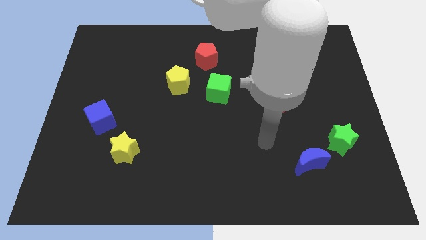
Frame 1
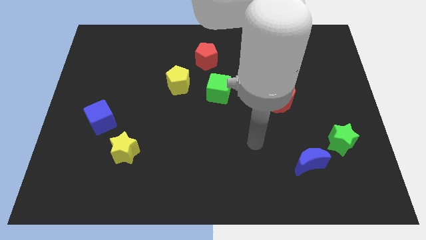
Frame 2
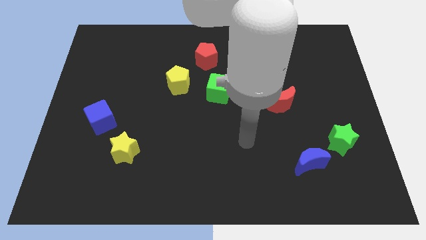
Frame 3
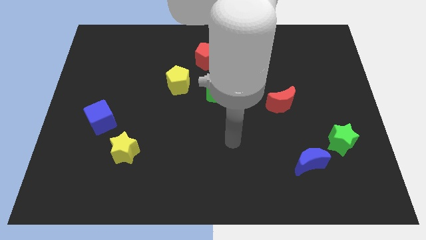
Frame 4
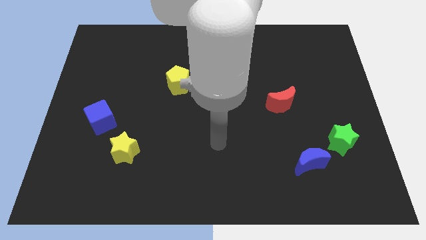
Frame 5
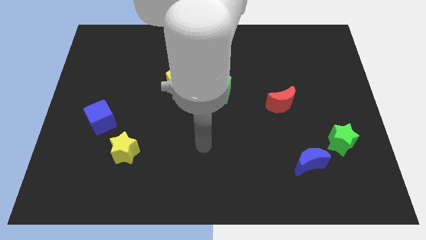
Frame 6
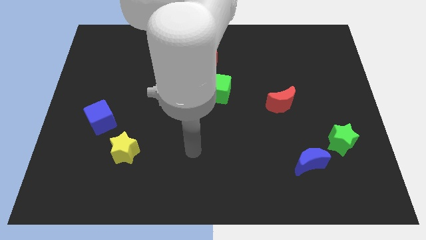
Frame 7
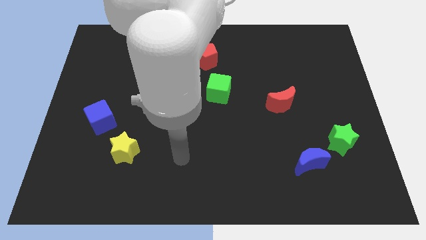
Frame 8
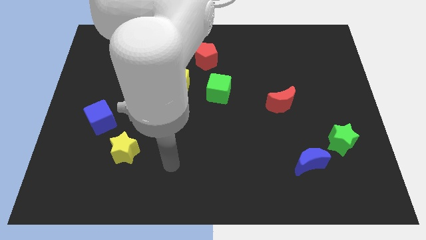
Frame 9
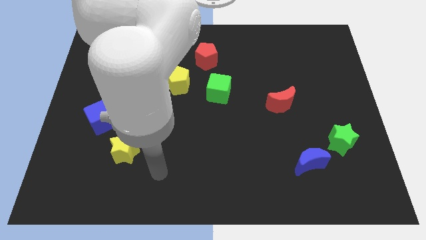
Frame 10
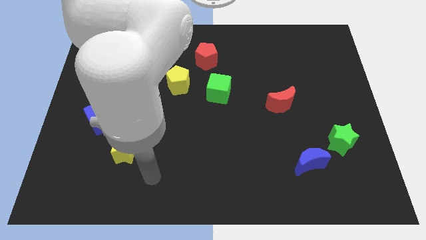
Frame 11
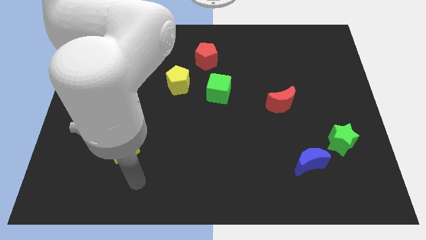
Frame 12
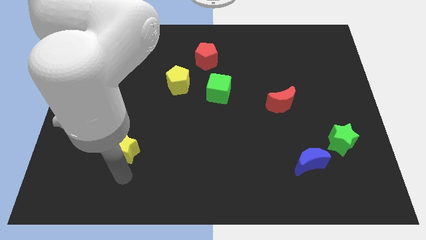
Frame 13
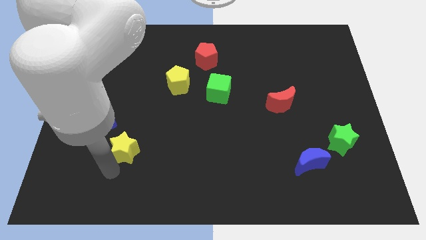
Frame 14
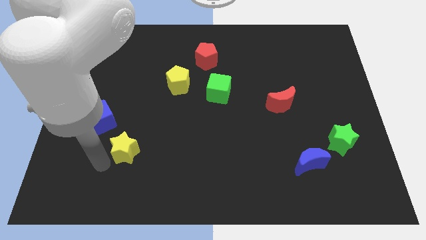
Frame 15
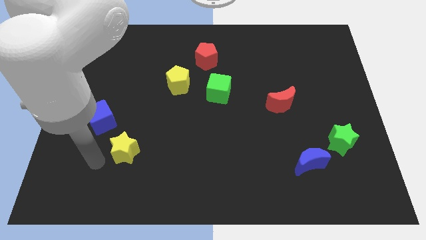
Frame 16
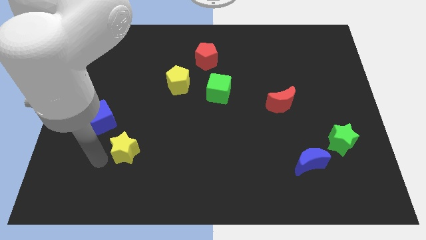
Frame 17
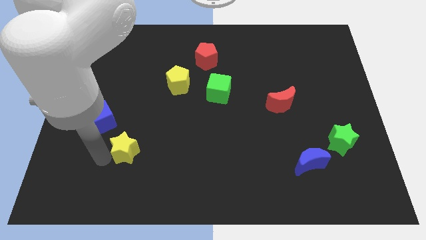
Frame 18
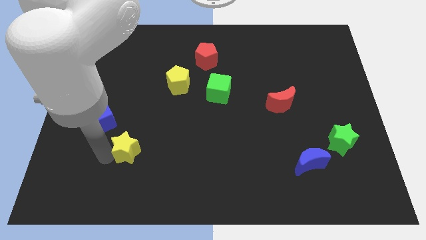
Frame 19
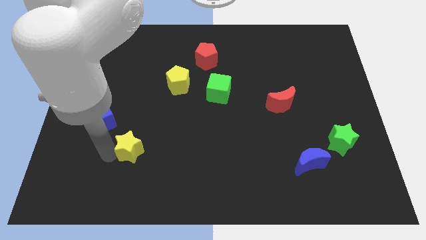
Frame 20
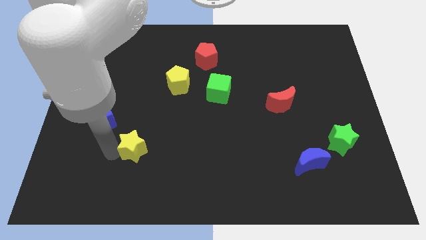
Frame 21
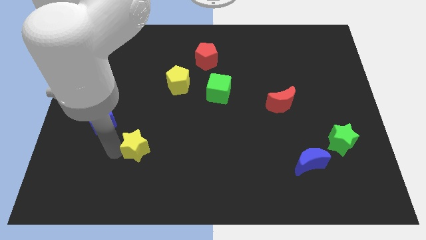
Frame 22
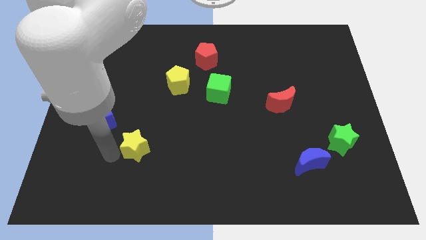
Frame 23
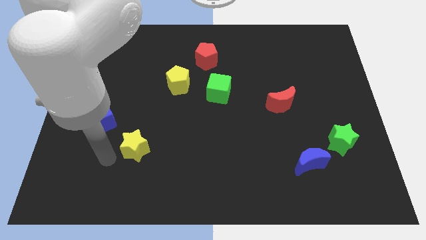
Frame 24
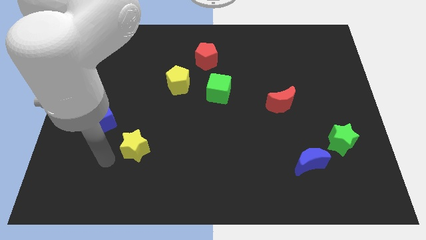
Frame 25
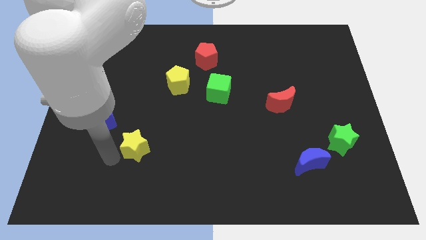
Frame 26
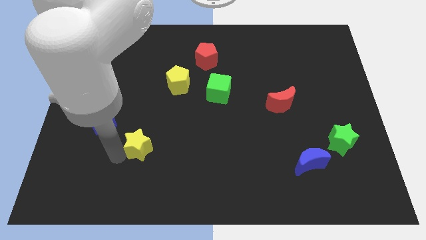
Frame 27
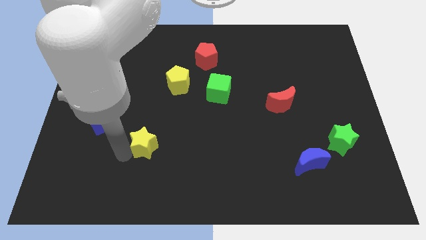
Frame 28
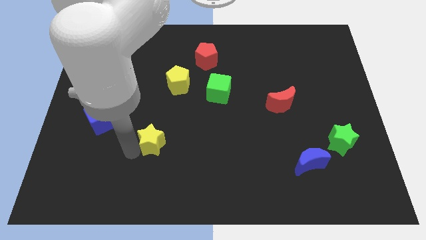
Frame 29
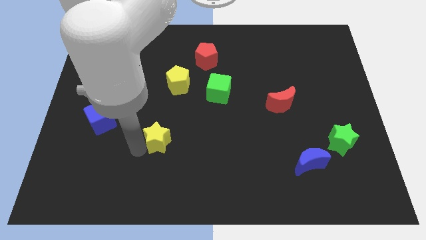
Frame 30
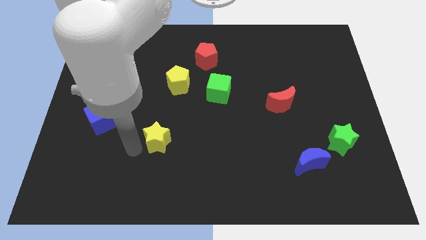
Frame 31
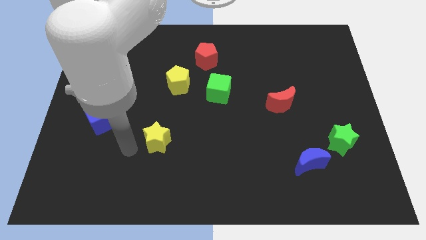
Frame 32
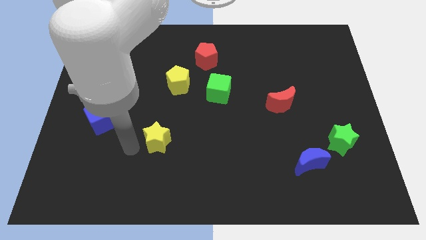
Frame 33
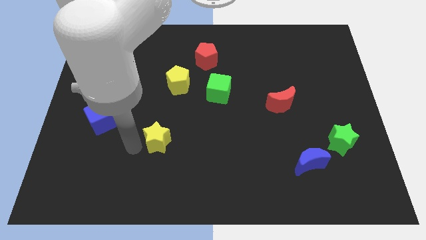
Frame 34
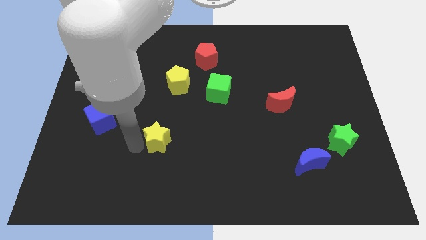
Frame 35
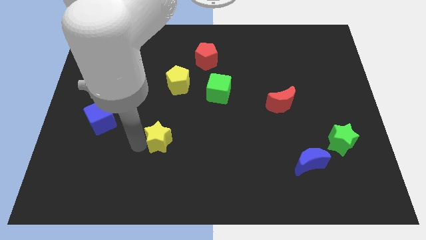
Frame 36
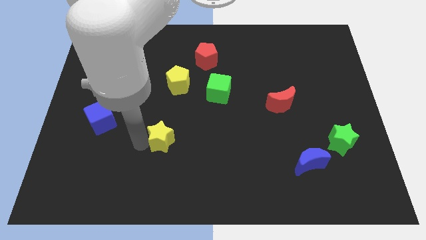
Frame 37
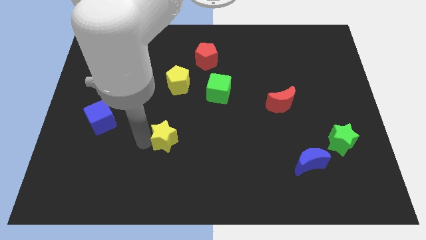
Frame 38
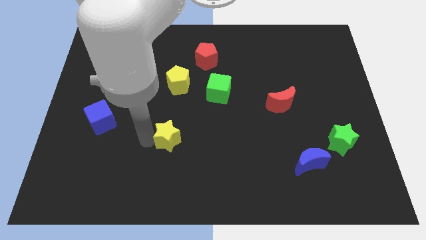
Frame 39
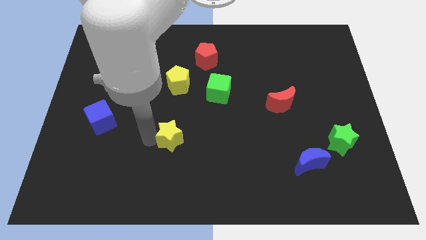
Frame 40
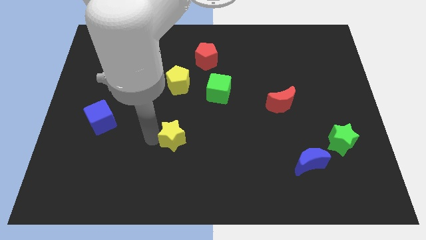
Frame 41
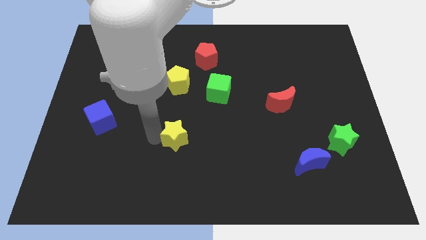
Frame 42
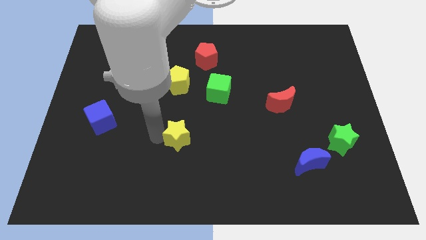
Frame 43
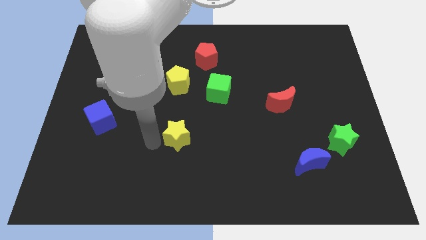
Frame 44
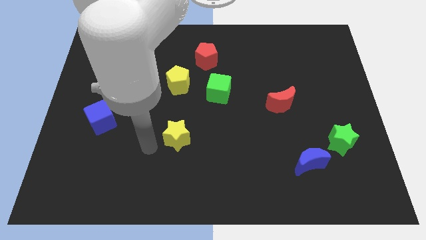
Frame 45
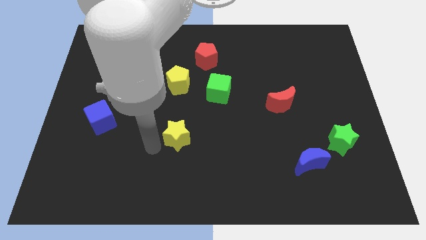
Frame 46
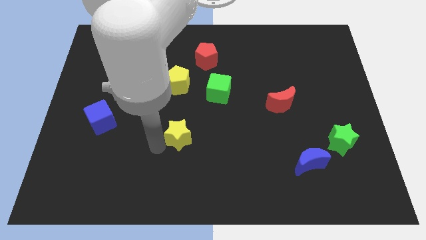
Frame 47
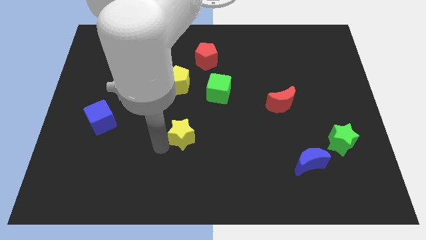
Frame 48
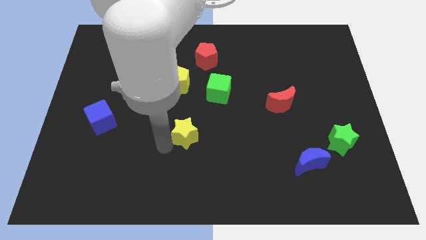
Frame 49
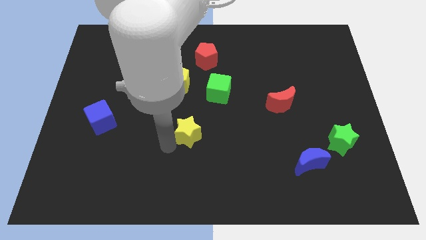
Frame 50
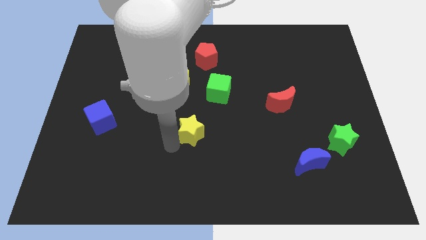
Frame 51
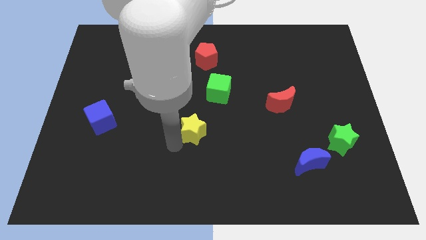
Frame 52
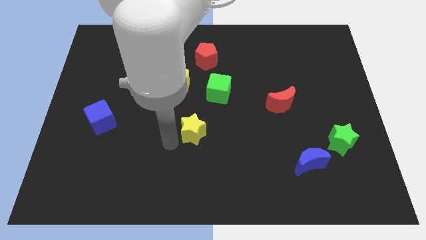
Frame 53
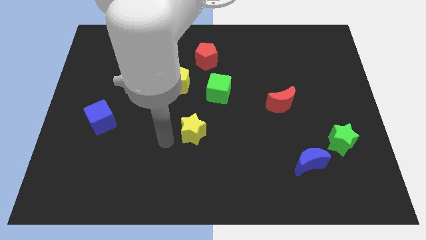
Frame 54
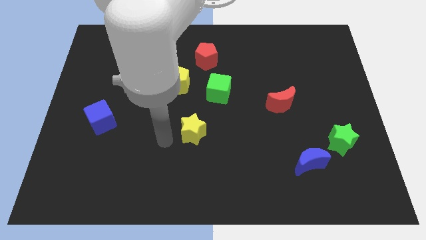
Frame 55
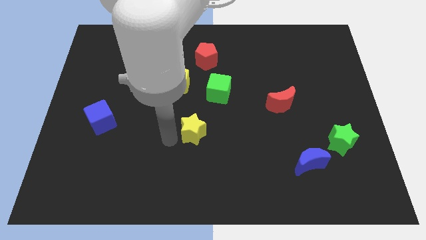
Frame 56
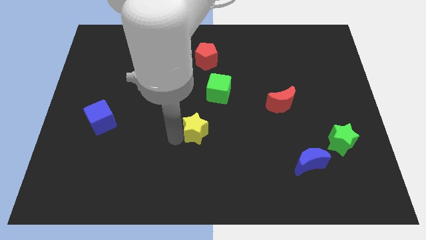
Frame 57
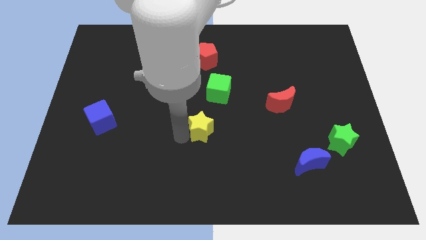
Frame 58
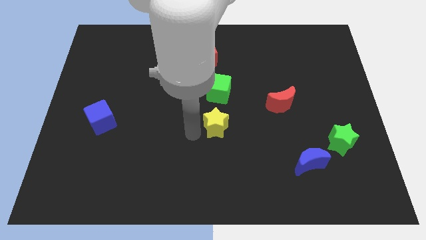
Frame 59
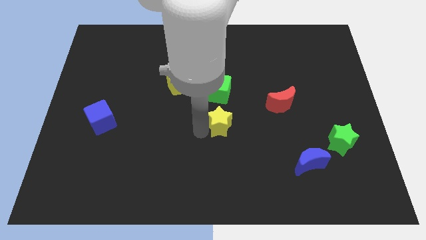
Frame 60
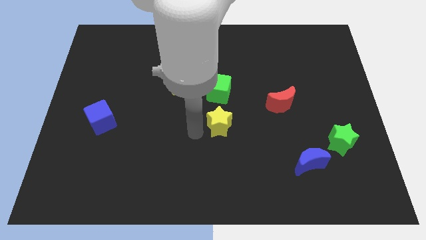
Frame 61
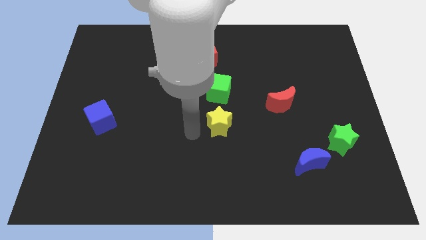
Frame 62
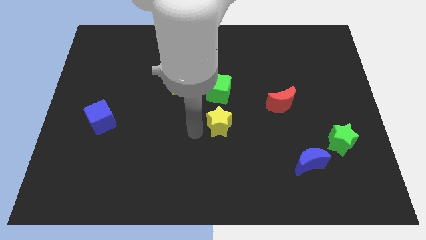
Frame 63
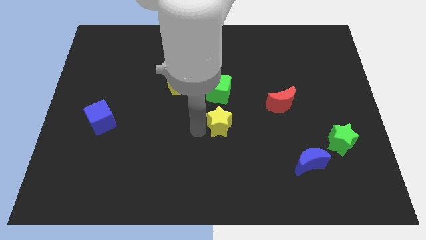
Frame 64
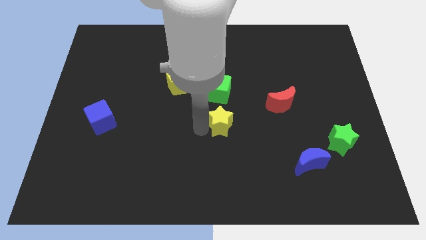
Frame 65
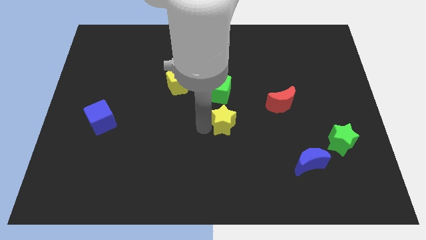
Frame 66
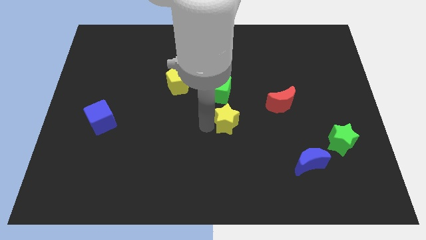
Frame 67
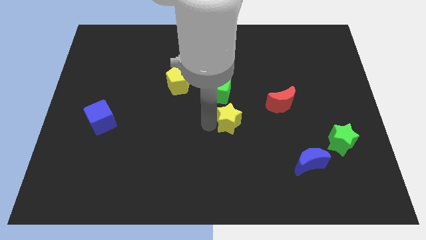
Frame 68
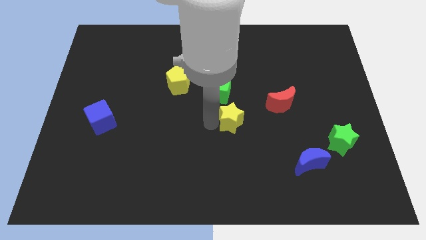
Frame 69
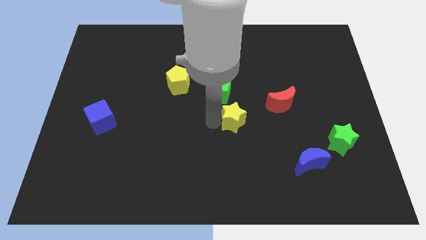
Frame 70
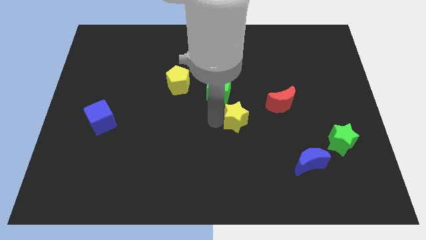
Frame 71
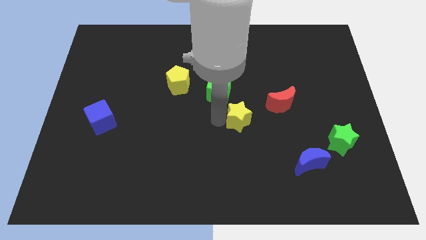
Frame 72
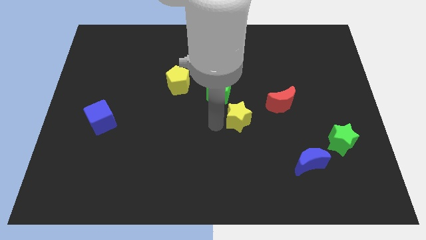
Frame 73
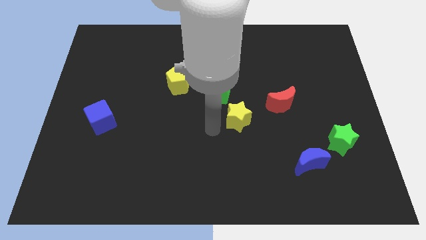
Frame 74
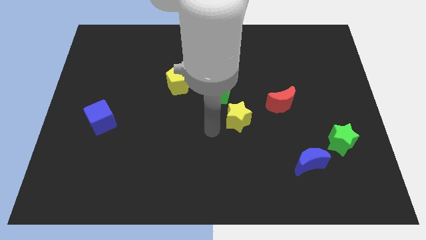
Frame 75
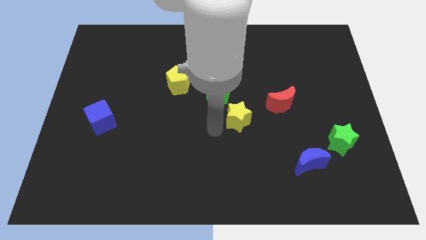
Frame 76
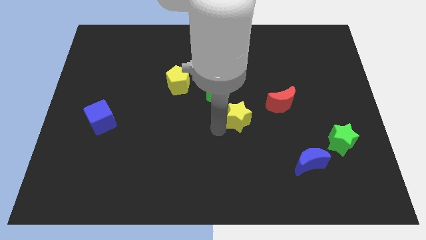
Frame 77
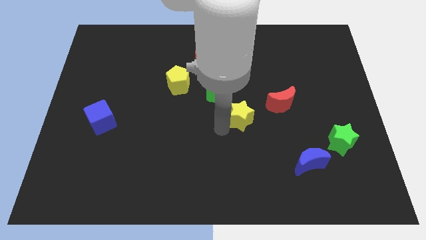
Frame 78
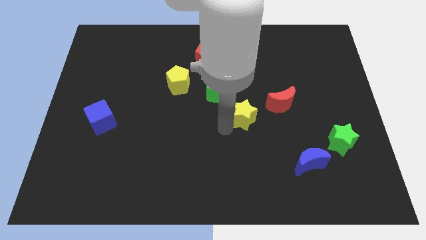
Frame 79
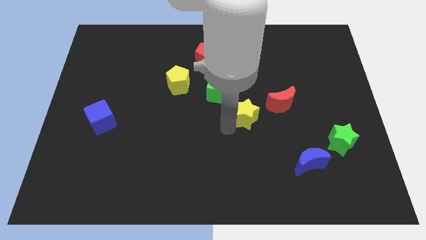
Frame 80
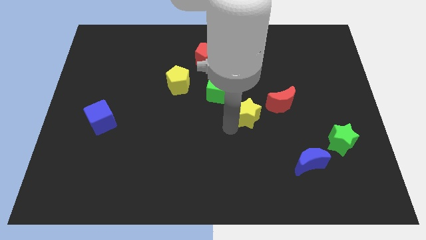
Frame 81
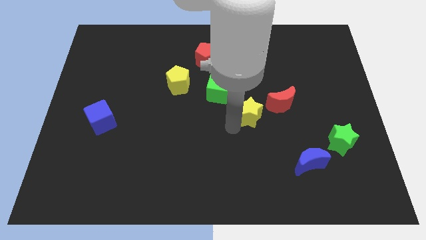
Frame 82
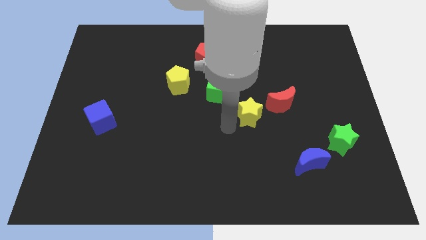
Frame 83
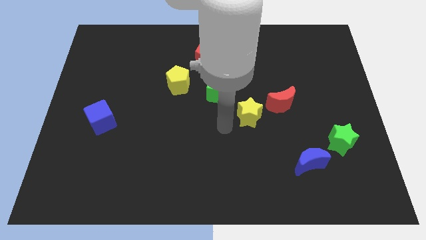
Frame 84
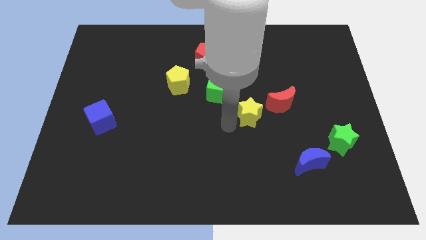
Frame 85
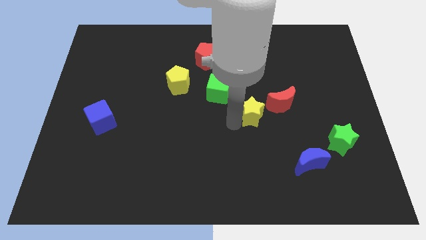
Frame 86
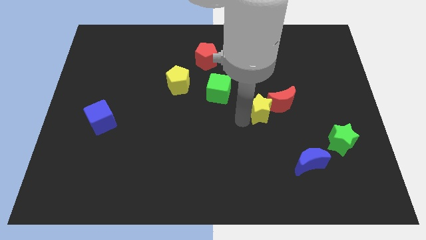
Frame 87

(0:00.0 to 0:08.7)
put the yellow star next to the red moon
